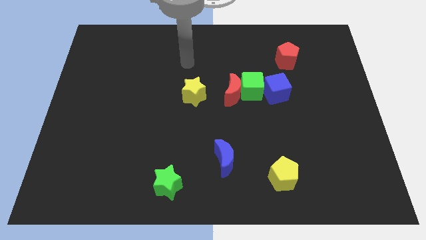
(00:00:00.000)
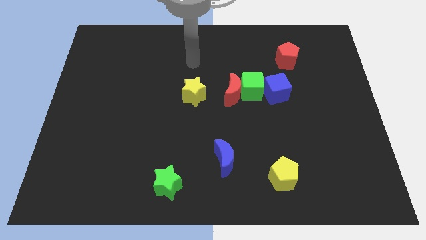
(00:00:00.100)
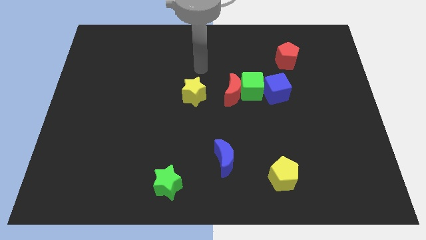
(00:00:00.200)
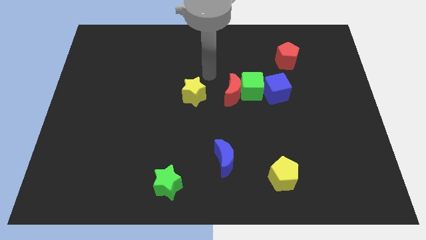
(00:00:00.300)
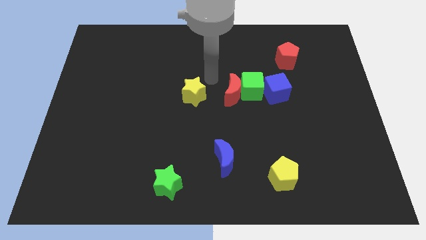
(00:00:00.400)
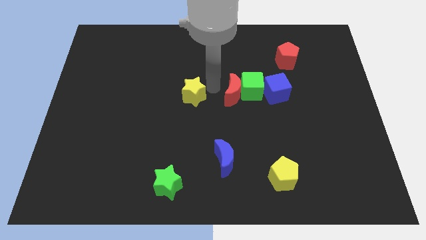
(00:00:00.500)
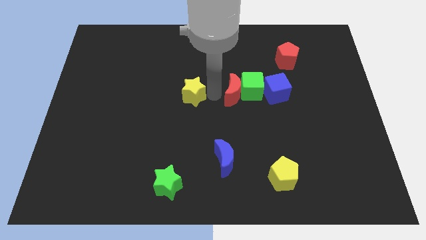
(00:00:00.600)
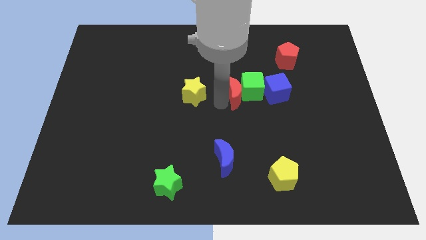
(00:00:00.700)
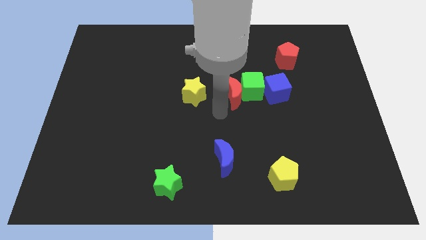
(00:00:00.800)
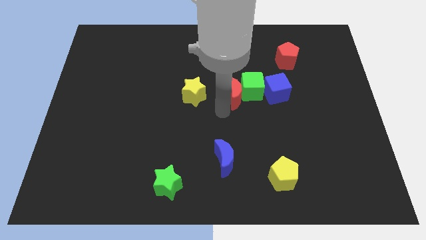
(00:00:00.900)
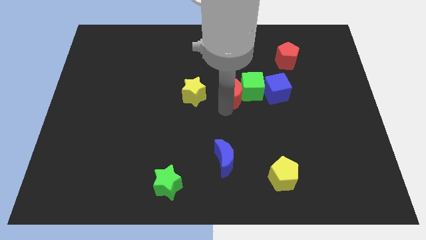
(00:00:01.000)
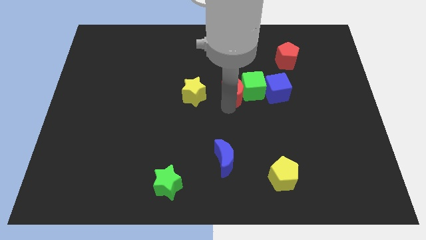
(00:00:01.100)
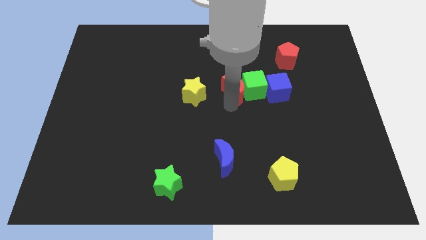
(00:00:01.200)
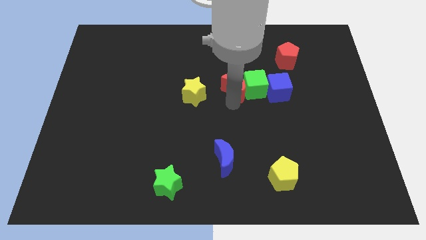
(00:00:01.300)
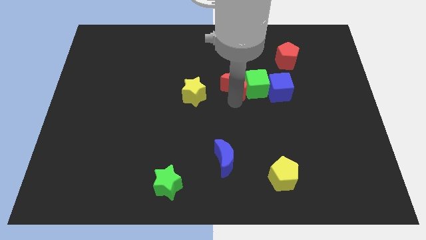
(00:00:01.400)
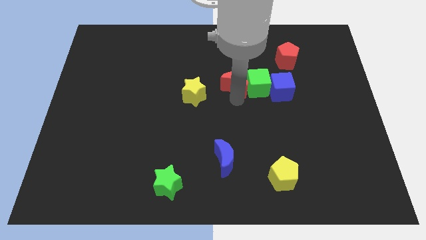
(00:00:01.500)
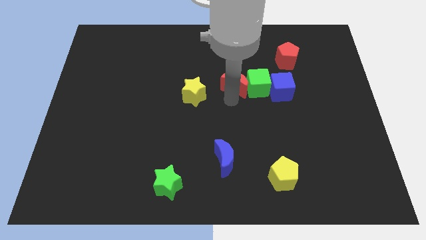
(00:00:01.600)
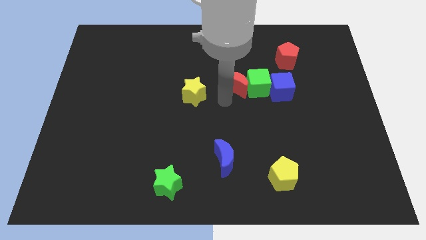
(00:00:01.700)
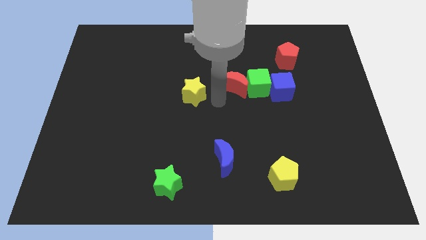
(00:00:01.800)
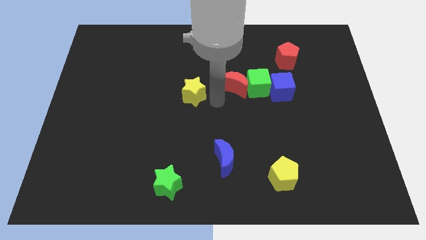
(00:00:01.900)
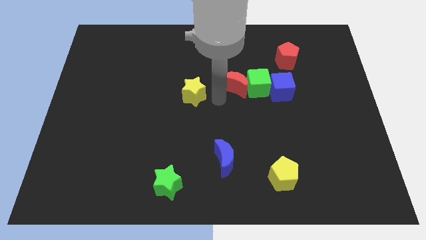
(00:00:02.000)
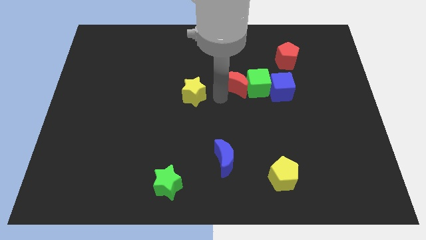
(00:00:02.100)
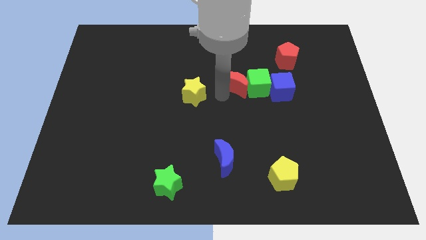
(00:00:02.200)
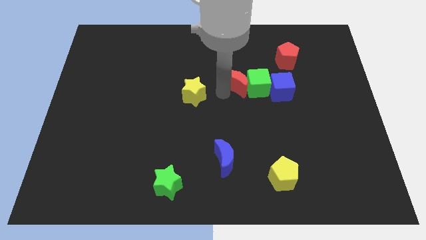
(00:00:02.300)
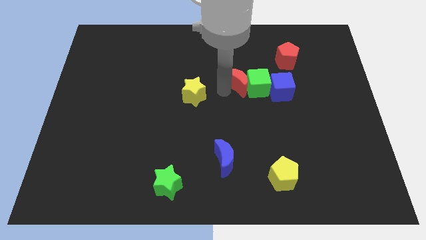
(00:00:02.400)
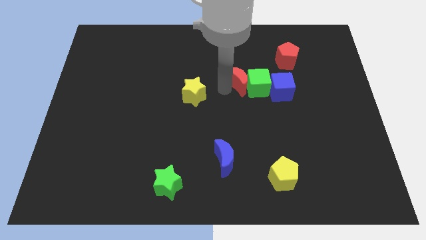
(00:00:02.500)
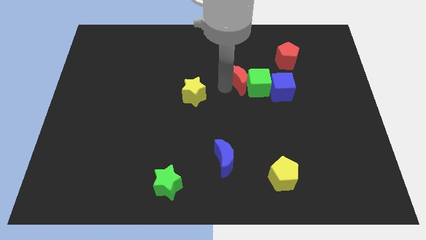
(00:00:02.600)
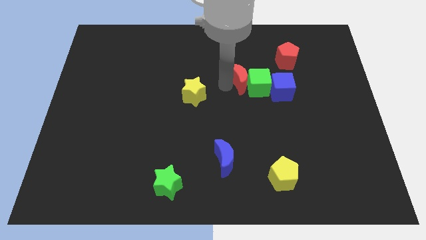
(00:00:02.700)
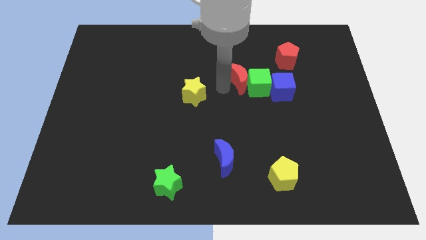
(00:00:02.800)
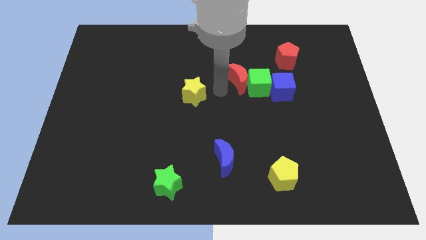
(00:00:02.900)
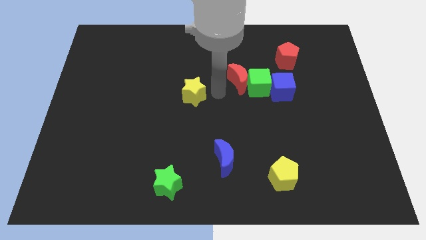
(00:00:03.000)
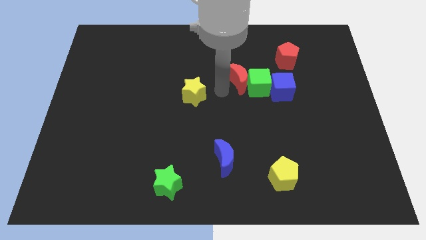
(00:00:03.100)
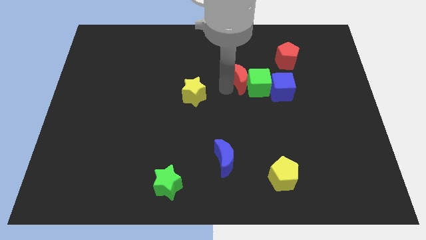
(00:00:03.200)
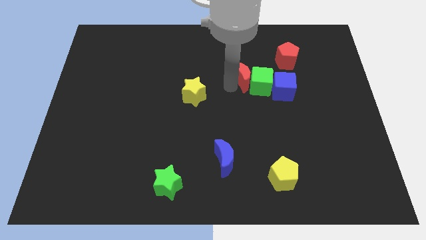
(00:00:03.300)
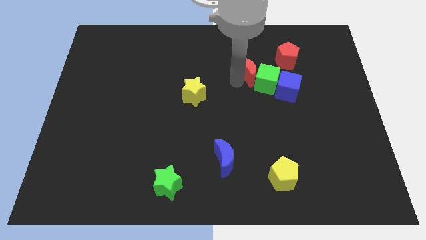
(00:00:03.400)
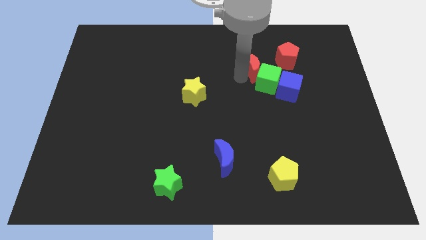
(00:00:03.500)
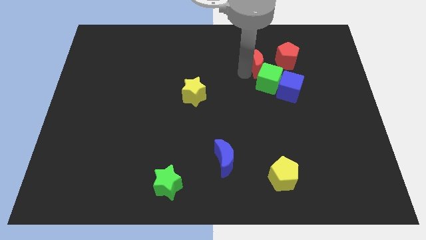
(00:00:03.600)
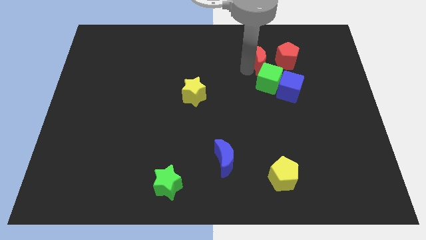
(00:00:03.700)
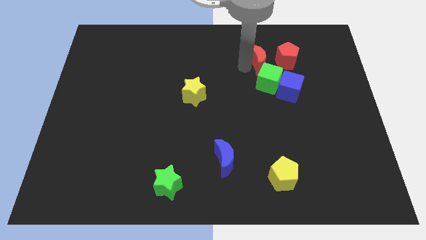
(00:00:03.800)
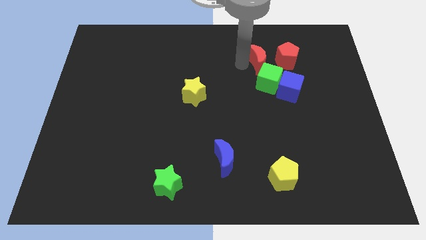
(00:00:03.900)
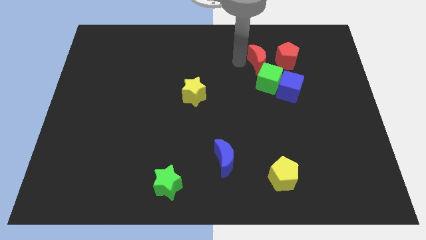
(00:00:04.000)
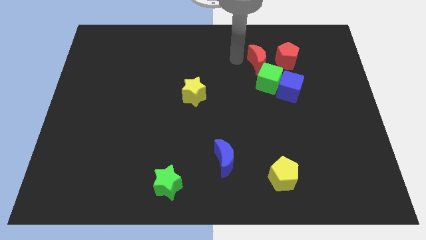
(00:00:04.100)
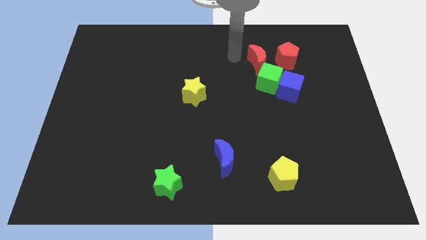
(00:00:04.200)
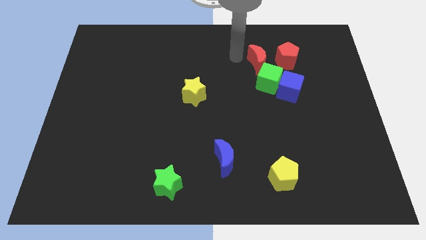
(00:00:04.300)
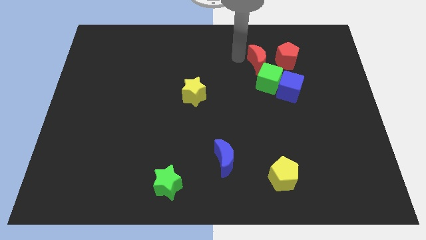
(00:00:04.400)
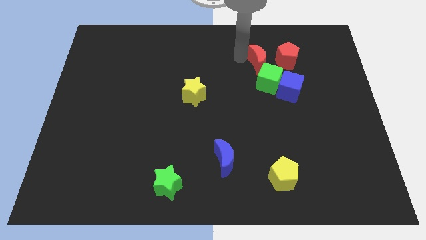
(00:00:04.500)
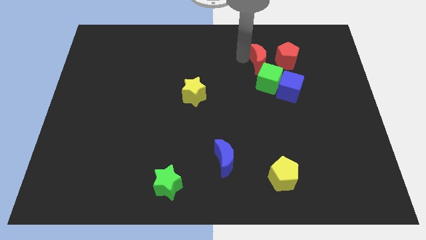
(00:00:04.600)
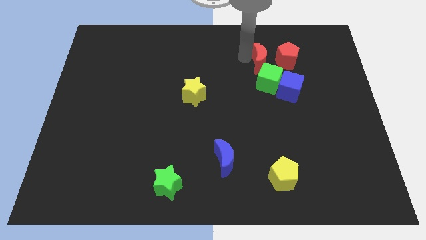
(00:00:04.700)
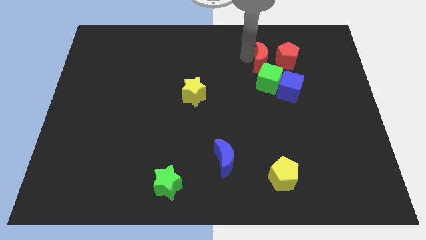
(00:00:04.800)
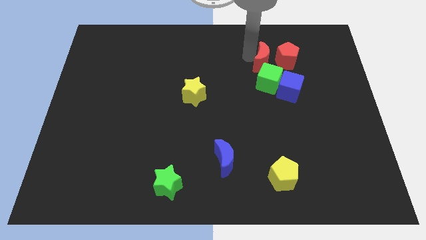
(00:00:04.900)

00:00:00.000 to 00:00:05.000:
slide the red moon towards the red pentagon

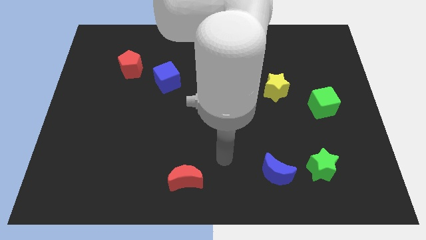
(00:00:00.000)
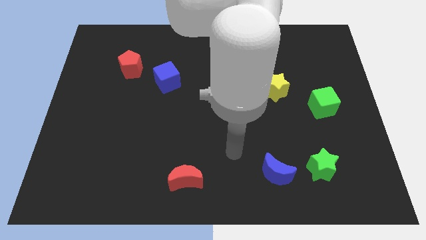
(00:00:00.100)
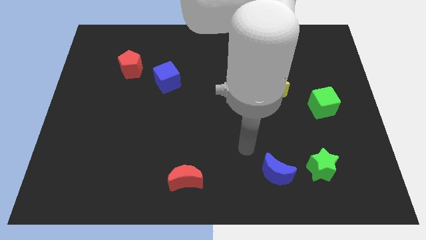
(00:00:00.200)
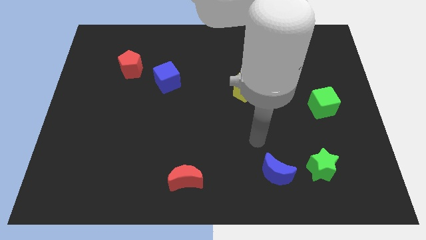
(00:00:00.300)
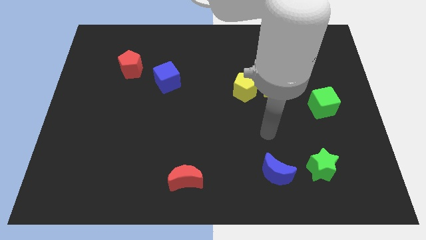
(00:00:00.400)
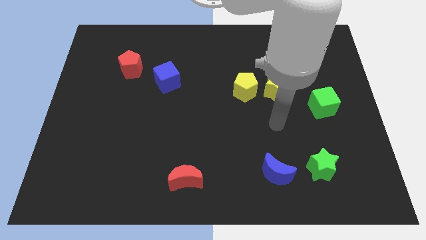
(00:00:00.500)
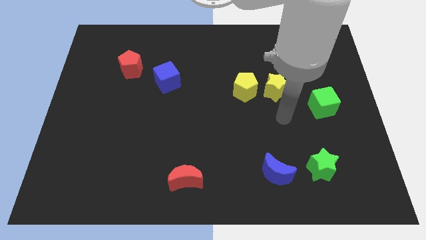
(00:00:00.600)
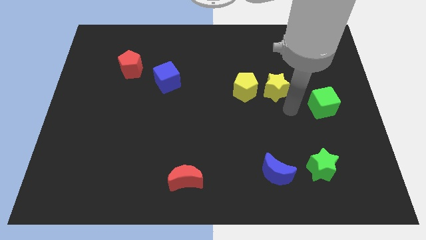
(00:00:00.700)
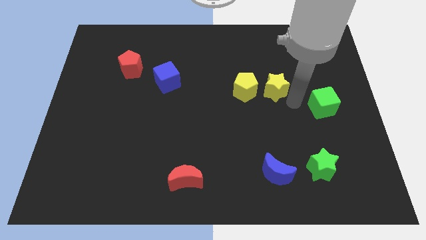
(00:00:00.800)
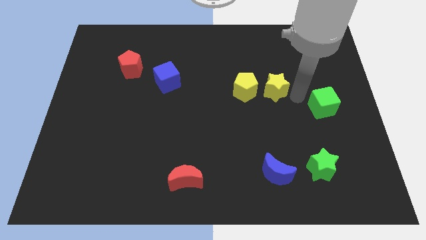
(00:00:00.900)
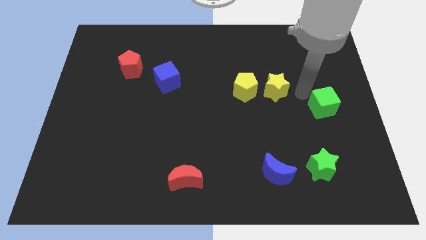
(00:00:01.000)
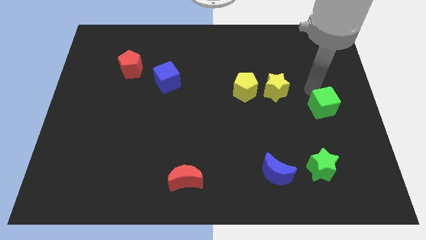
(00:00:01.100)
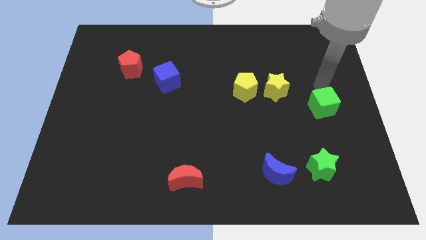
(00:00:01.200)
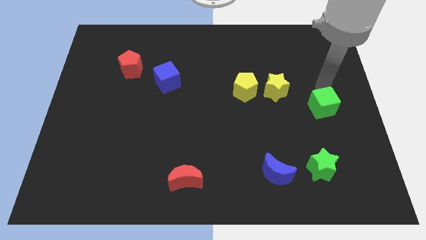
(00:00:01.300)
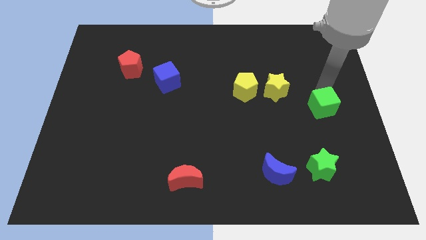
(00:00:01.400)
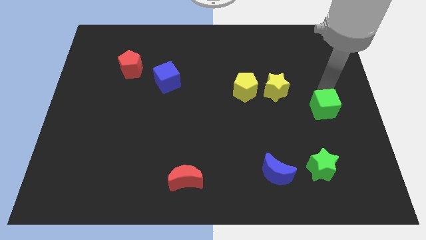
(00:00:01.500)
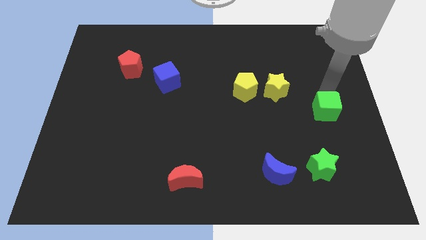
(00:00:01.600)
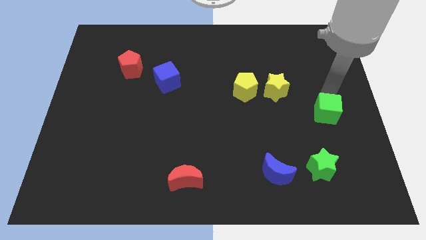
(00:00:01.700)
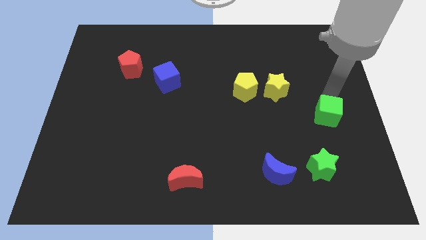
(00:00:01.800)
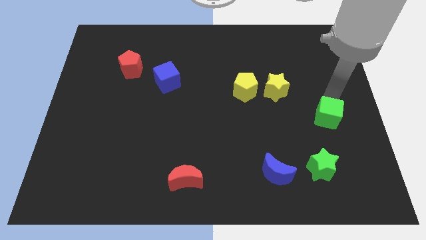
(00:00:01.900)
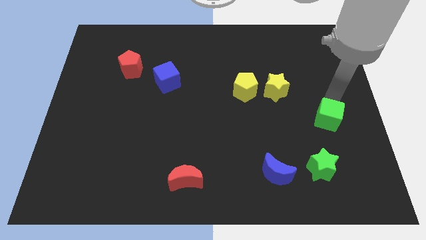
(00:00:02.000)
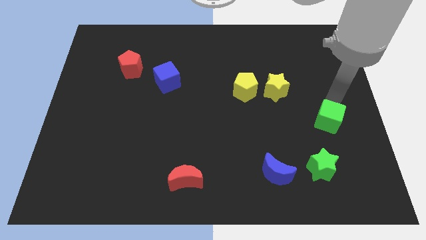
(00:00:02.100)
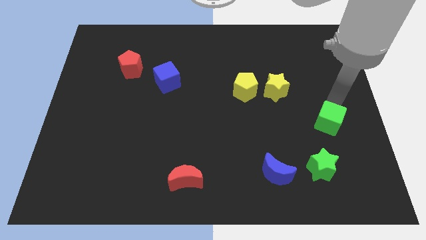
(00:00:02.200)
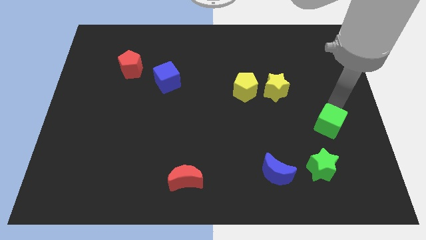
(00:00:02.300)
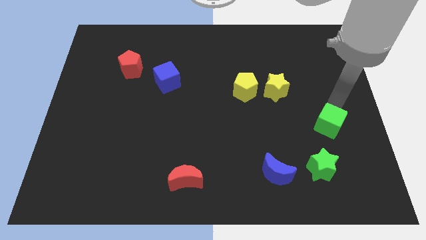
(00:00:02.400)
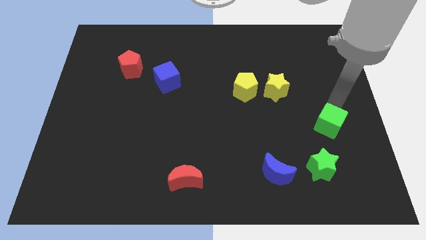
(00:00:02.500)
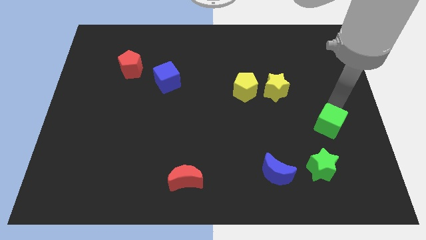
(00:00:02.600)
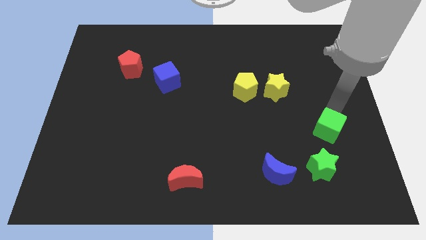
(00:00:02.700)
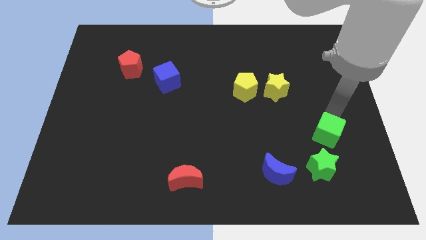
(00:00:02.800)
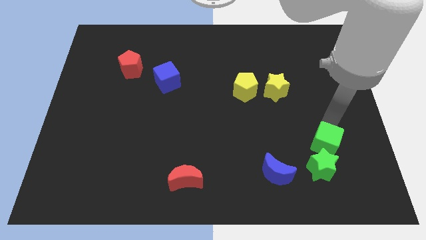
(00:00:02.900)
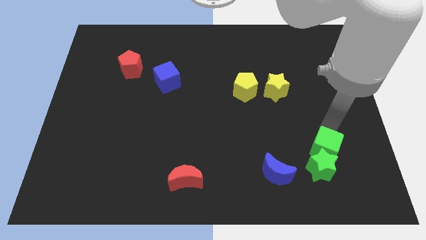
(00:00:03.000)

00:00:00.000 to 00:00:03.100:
put the green cube next to the green star
